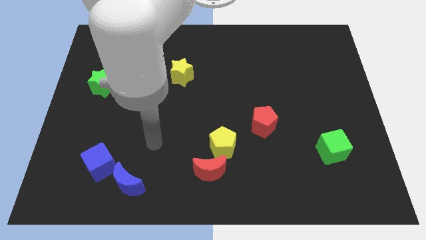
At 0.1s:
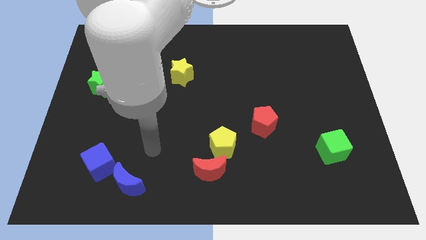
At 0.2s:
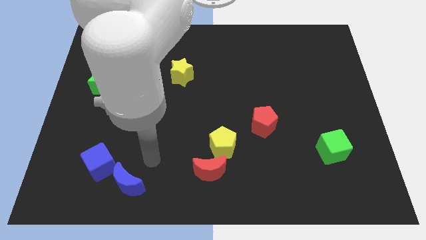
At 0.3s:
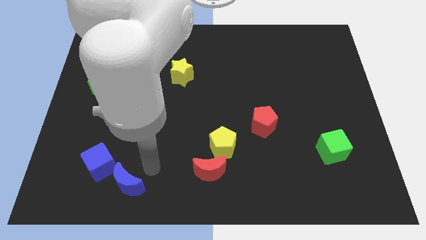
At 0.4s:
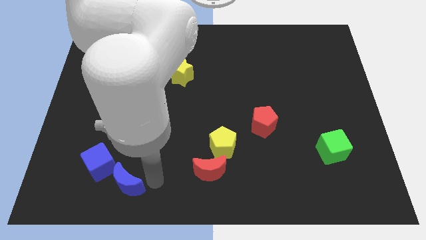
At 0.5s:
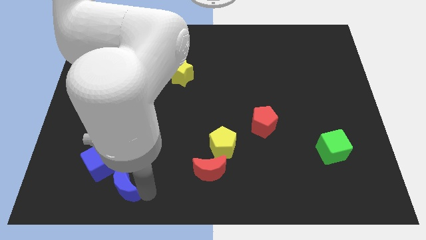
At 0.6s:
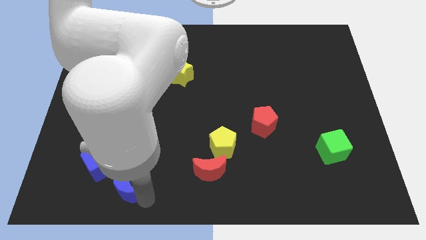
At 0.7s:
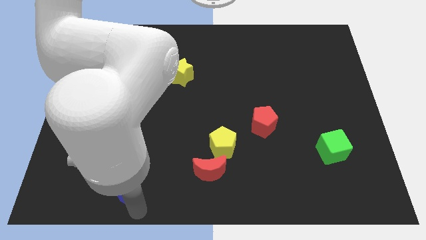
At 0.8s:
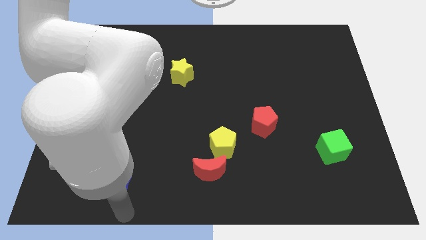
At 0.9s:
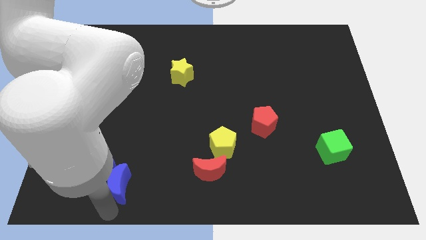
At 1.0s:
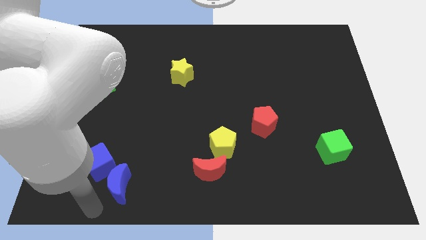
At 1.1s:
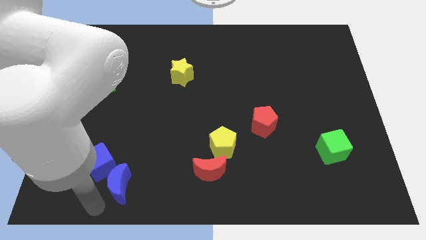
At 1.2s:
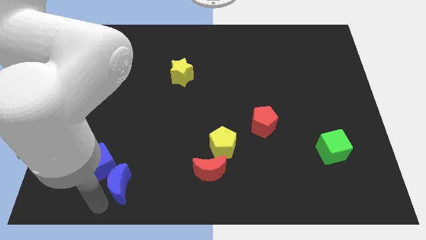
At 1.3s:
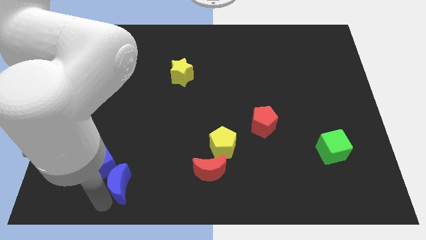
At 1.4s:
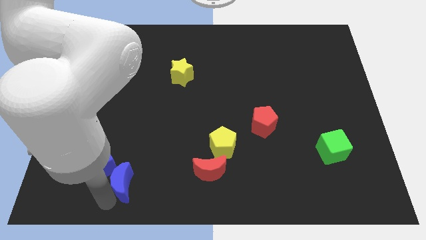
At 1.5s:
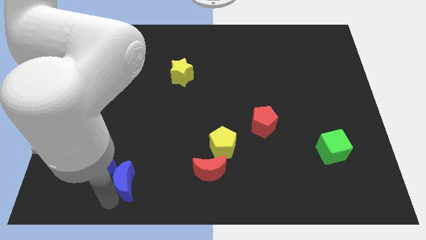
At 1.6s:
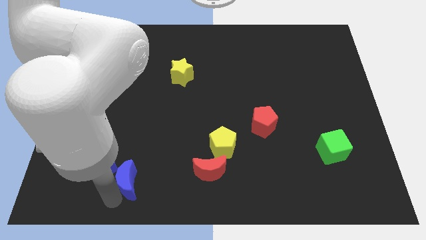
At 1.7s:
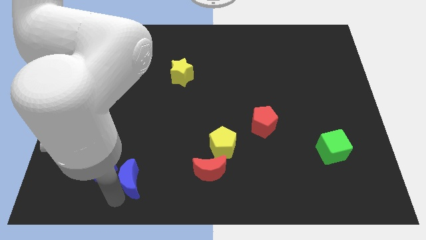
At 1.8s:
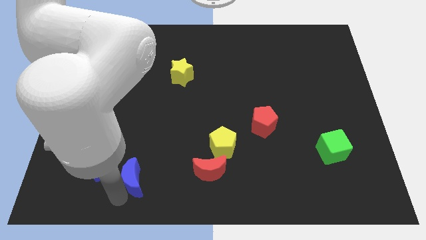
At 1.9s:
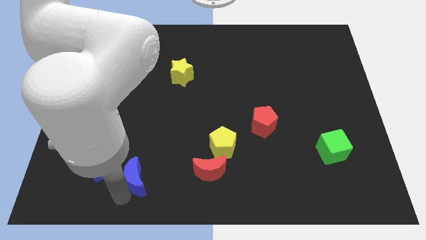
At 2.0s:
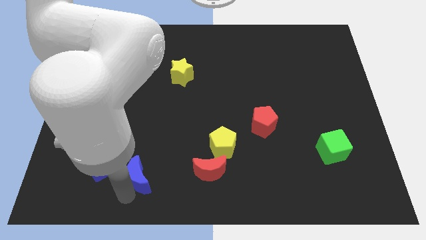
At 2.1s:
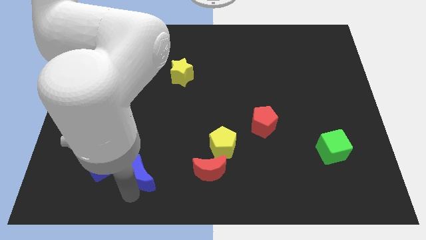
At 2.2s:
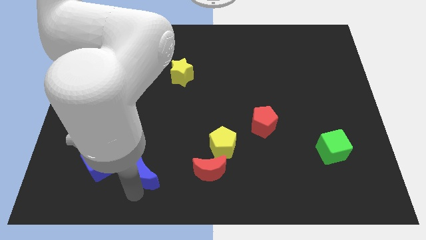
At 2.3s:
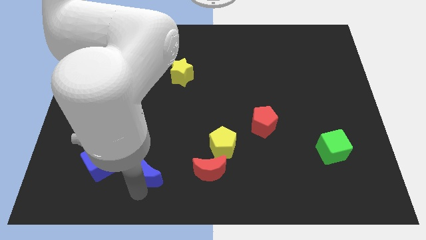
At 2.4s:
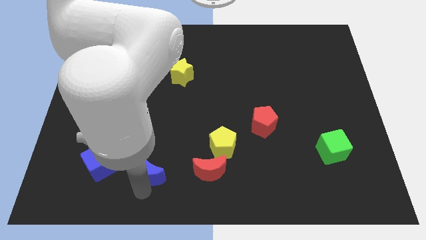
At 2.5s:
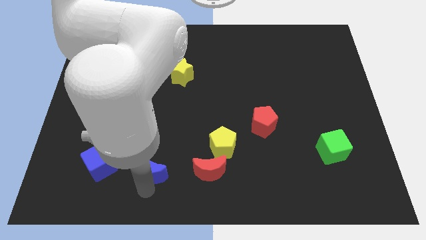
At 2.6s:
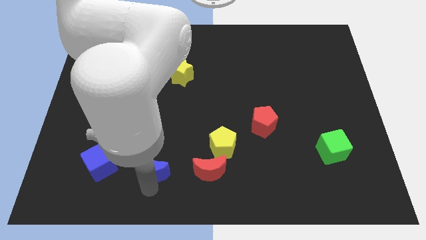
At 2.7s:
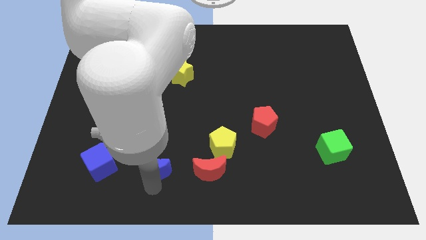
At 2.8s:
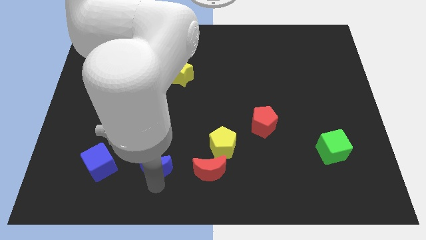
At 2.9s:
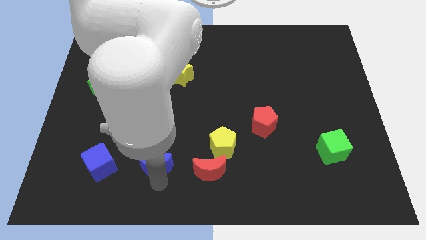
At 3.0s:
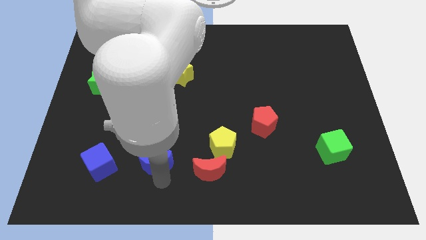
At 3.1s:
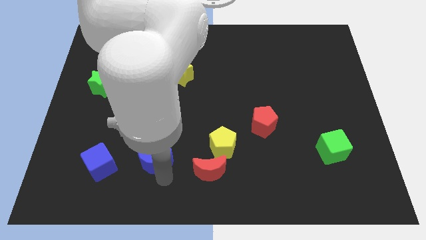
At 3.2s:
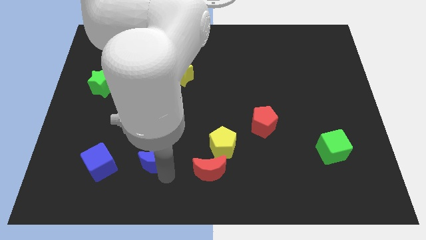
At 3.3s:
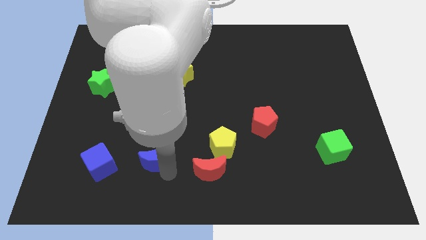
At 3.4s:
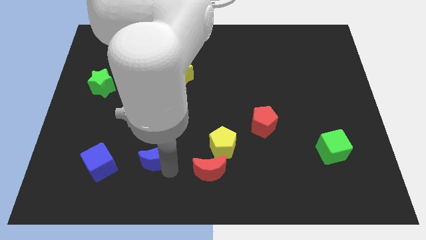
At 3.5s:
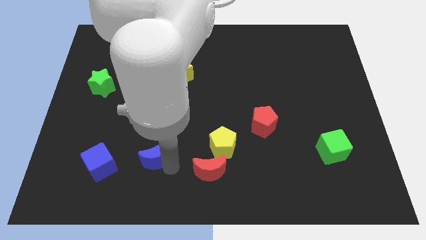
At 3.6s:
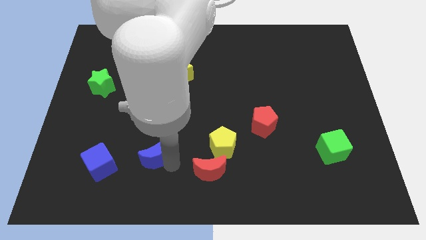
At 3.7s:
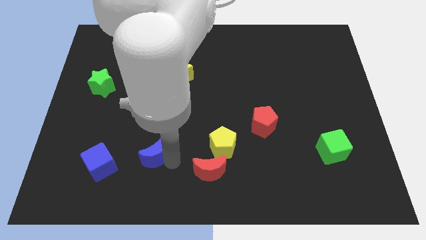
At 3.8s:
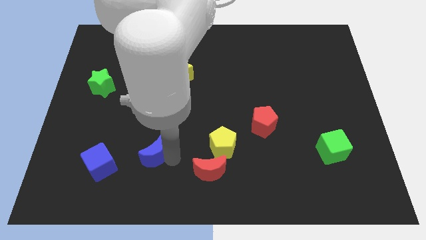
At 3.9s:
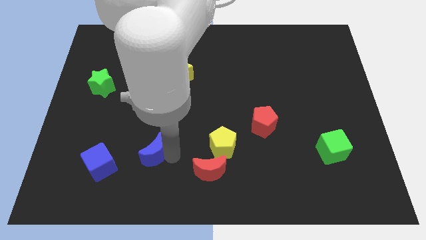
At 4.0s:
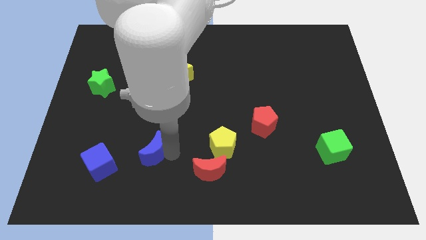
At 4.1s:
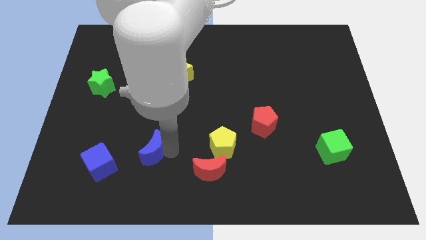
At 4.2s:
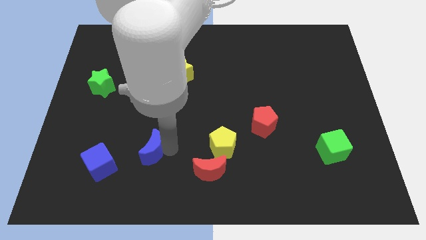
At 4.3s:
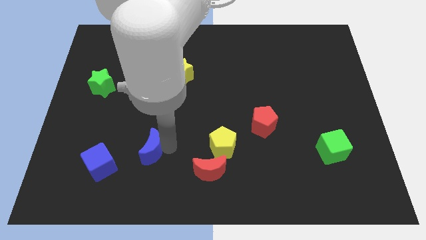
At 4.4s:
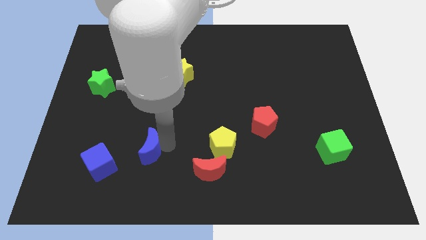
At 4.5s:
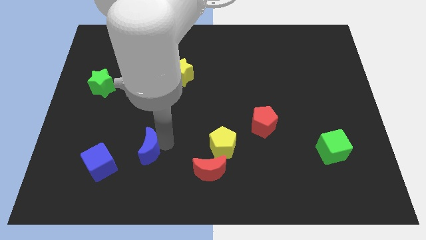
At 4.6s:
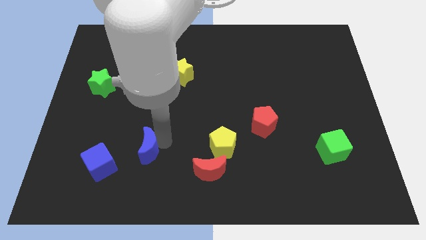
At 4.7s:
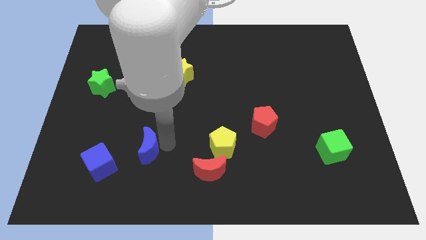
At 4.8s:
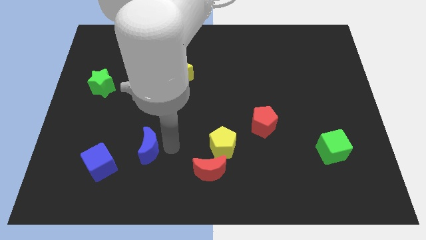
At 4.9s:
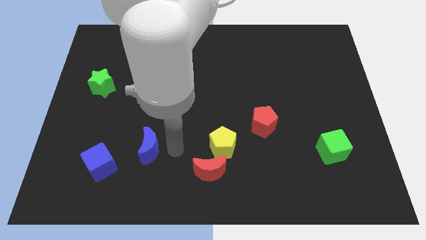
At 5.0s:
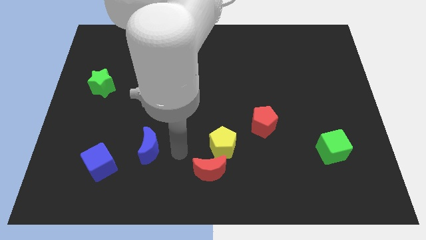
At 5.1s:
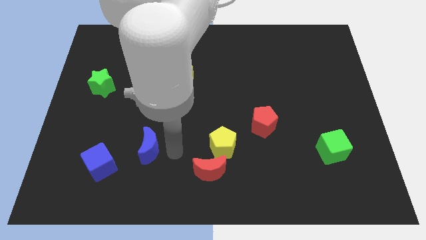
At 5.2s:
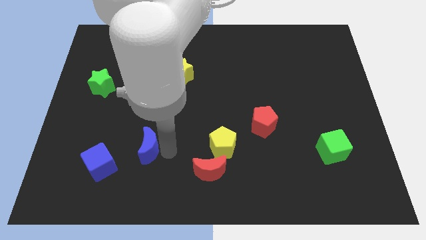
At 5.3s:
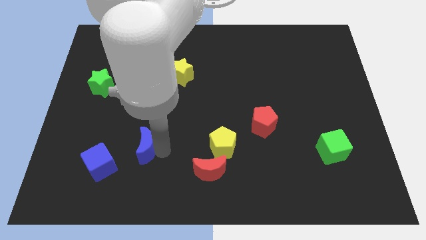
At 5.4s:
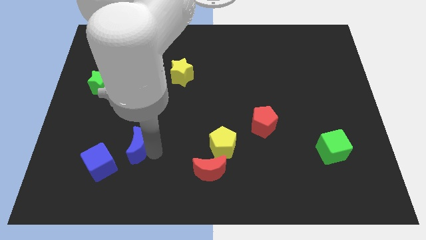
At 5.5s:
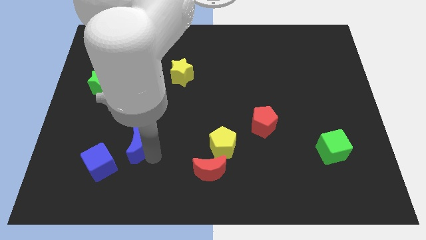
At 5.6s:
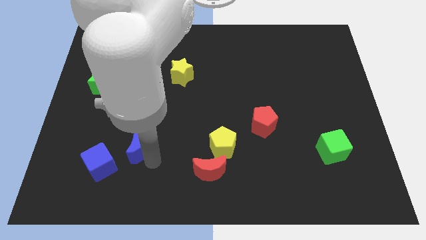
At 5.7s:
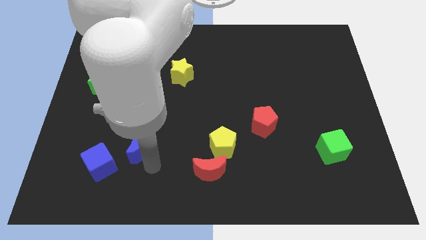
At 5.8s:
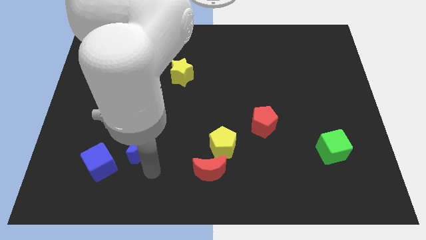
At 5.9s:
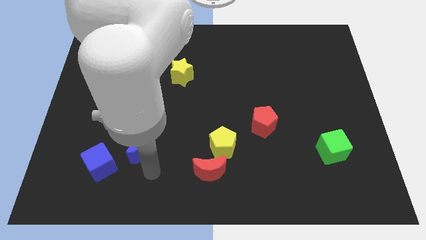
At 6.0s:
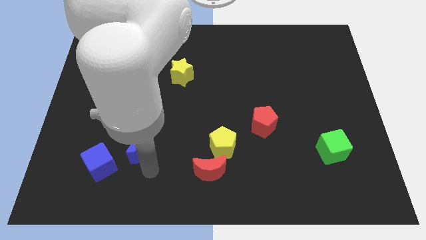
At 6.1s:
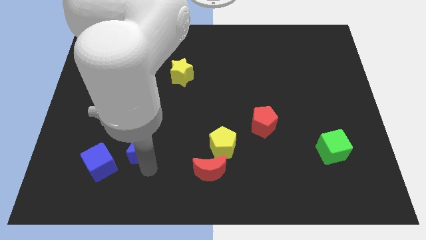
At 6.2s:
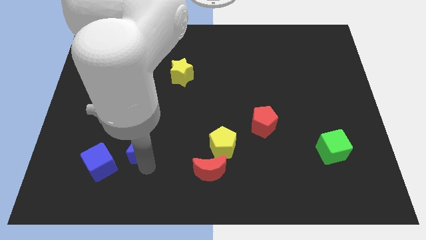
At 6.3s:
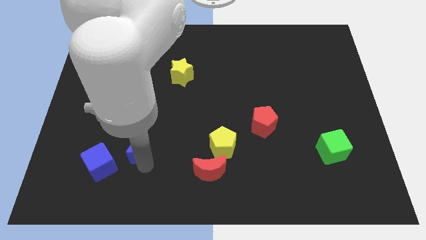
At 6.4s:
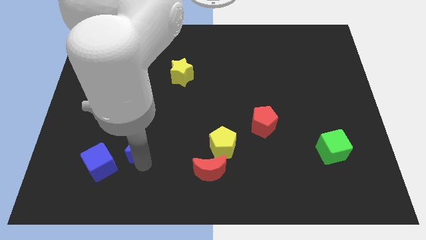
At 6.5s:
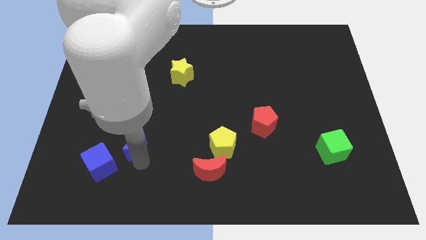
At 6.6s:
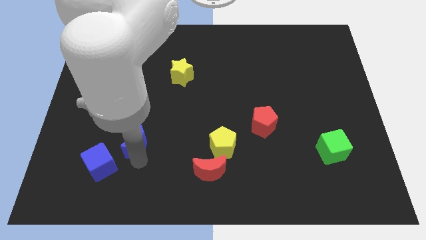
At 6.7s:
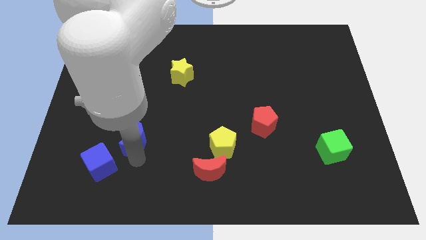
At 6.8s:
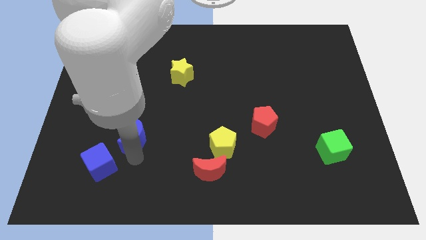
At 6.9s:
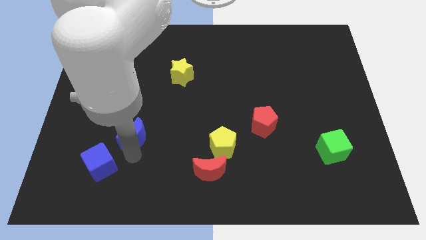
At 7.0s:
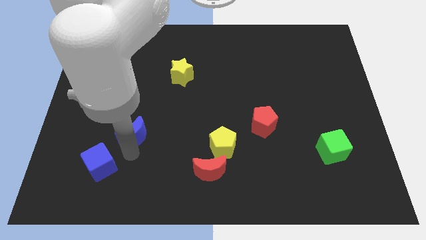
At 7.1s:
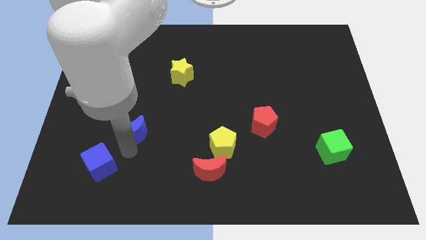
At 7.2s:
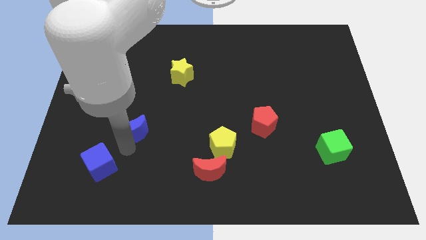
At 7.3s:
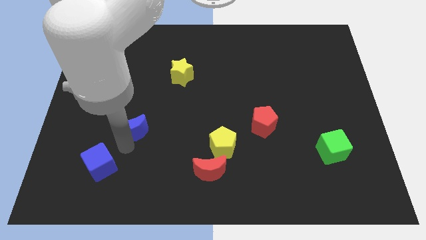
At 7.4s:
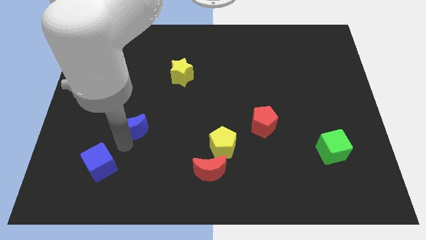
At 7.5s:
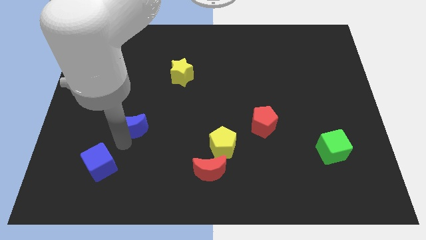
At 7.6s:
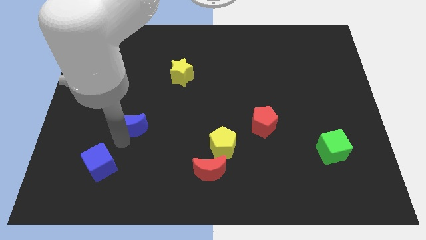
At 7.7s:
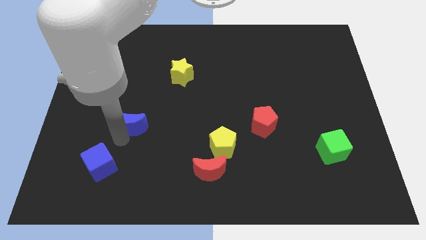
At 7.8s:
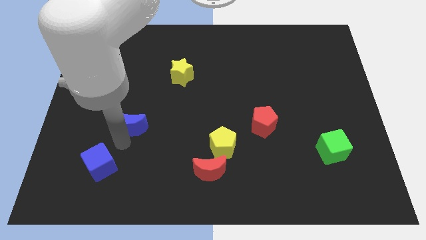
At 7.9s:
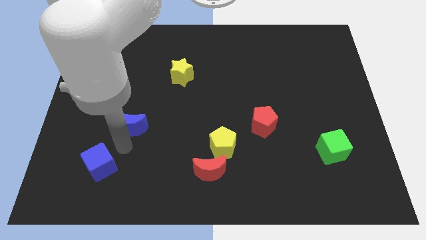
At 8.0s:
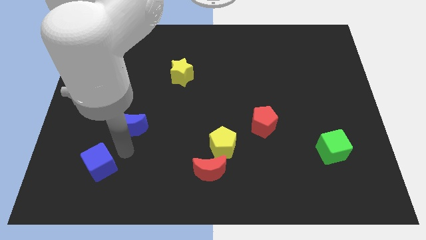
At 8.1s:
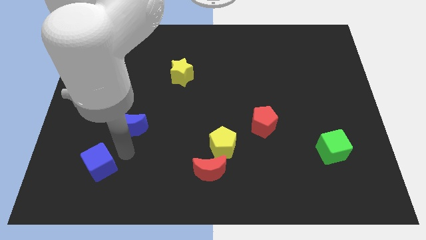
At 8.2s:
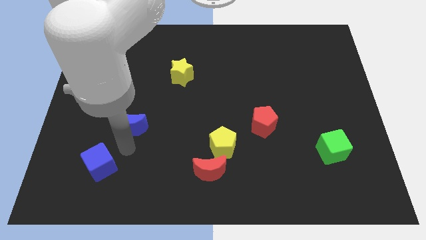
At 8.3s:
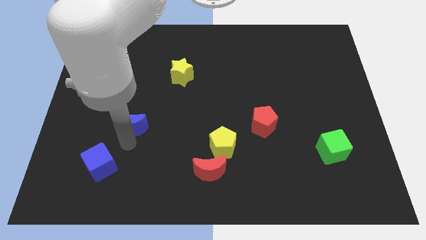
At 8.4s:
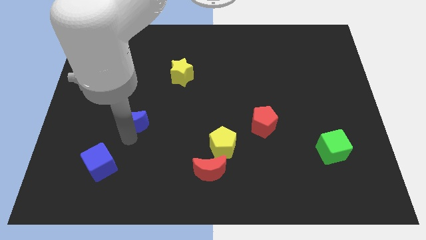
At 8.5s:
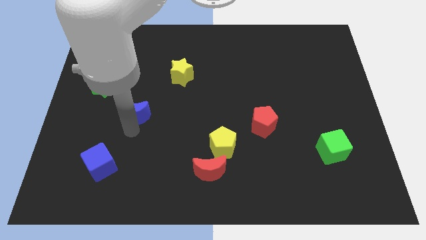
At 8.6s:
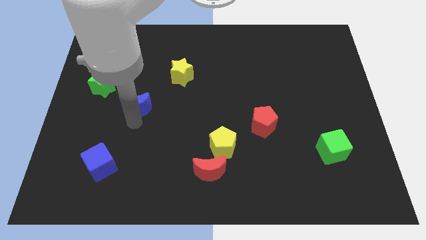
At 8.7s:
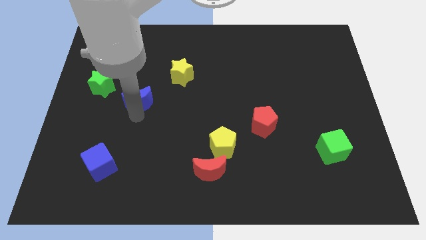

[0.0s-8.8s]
push the blue moon upwards
